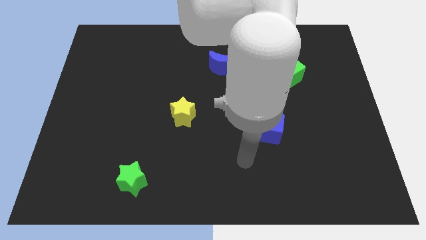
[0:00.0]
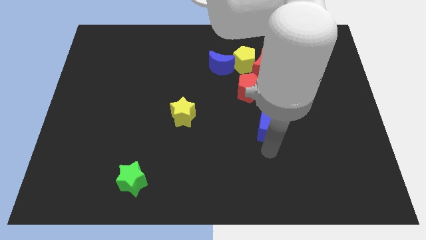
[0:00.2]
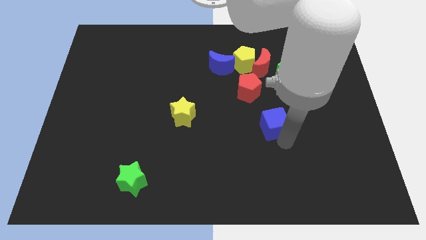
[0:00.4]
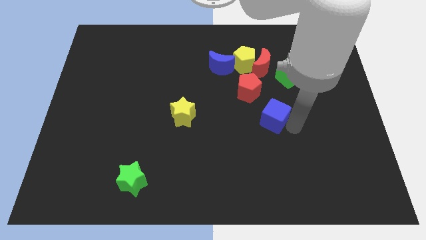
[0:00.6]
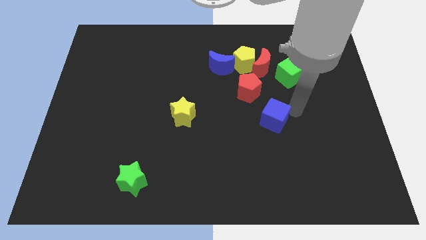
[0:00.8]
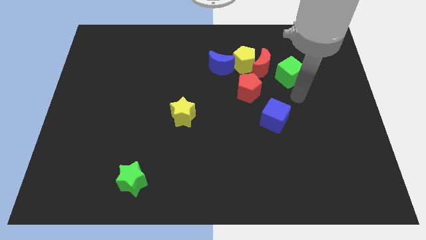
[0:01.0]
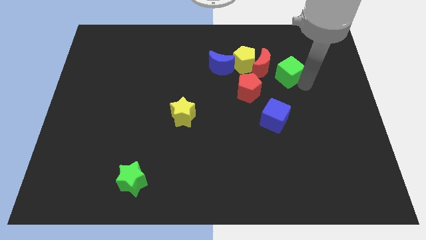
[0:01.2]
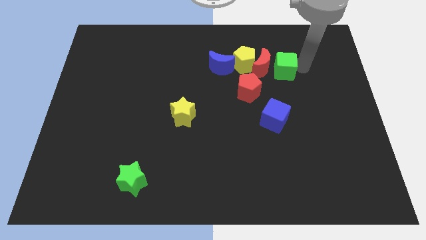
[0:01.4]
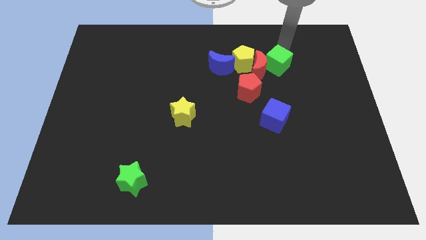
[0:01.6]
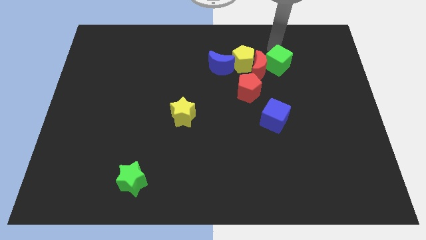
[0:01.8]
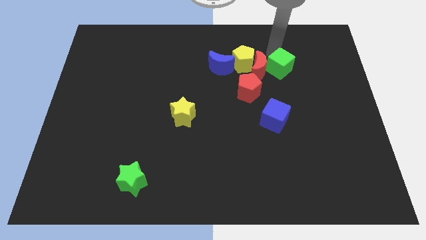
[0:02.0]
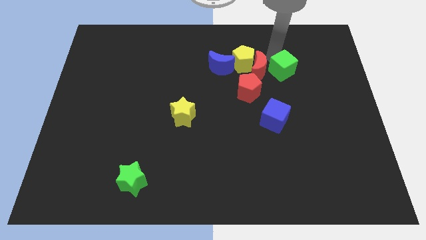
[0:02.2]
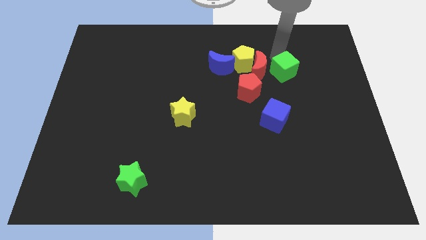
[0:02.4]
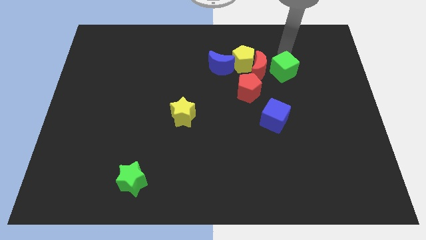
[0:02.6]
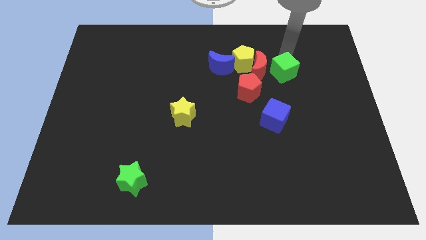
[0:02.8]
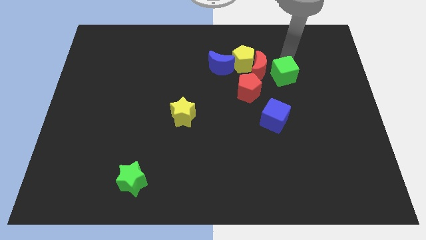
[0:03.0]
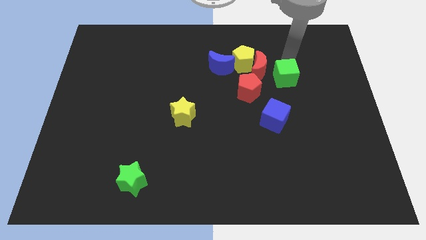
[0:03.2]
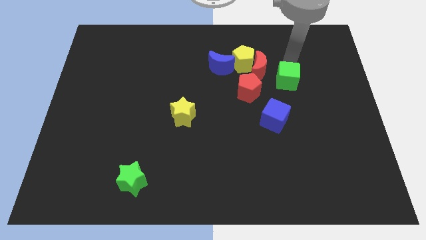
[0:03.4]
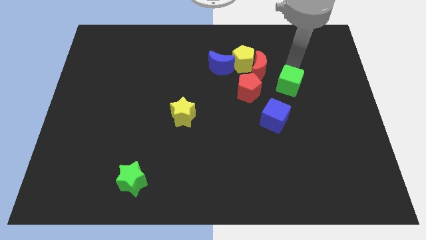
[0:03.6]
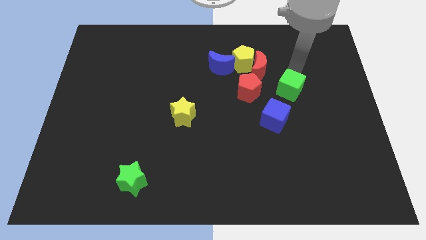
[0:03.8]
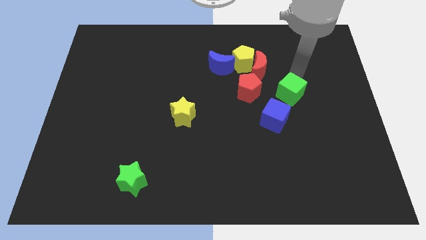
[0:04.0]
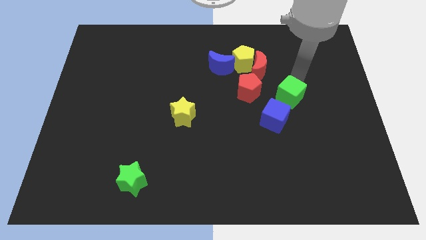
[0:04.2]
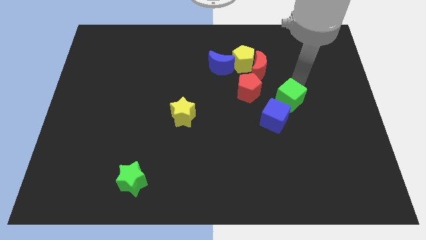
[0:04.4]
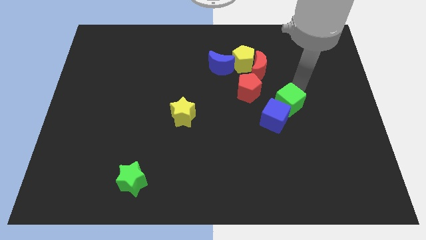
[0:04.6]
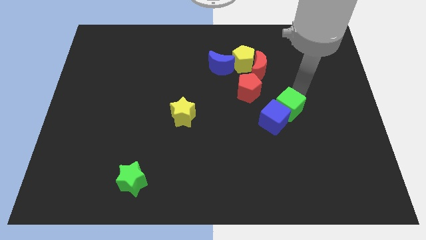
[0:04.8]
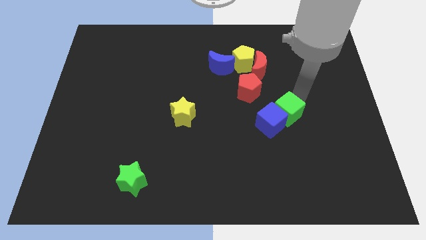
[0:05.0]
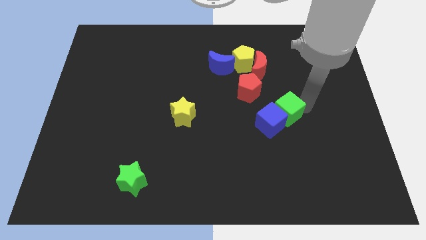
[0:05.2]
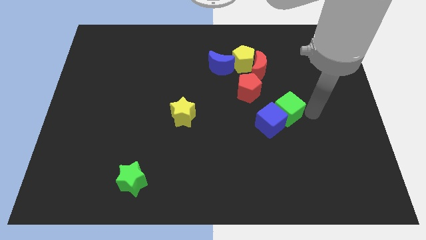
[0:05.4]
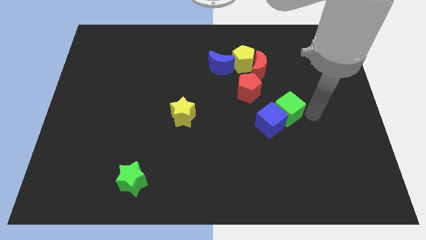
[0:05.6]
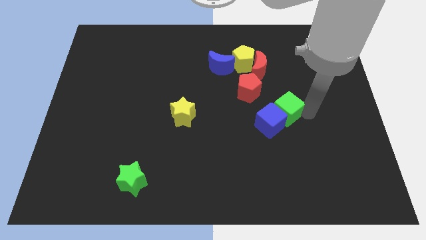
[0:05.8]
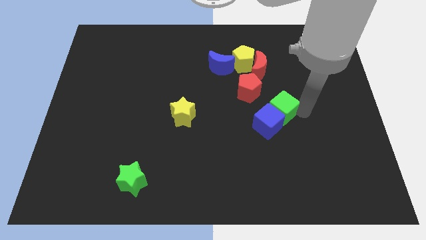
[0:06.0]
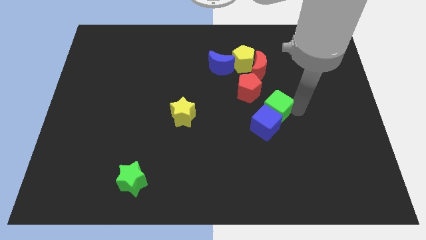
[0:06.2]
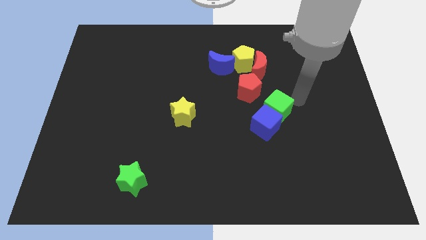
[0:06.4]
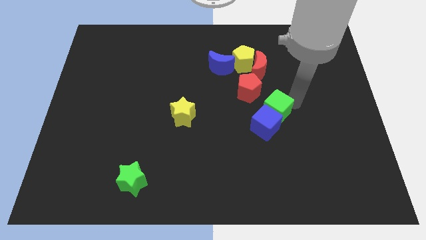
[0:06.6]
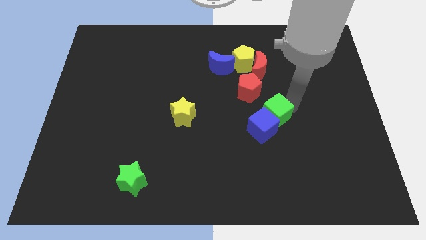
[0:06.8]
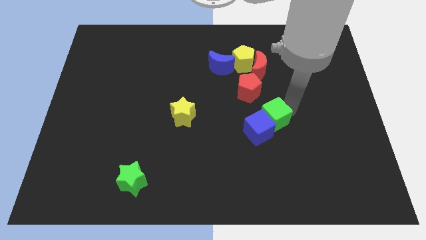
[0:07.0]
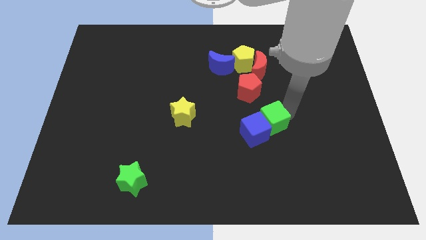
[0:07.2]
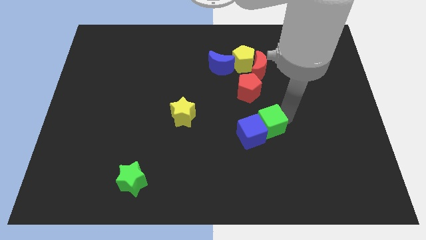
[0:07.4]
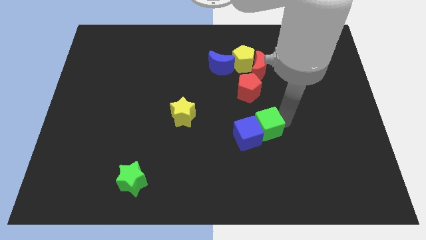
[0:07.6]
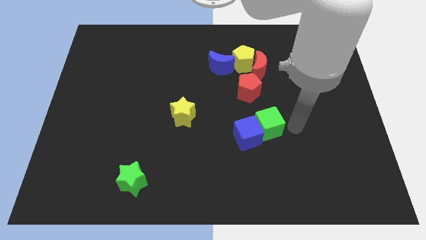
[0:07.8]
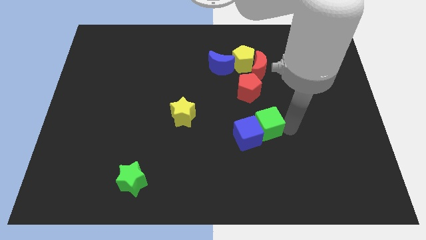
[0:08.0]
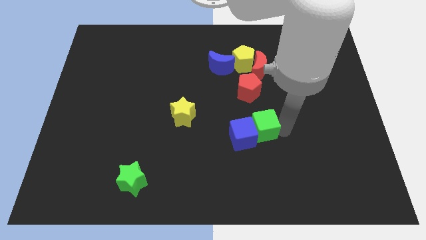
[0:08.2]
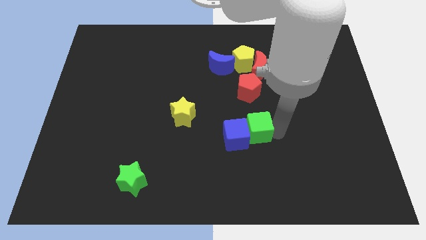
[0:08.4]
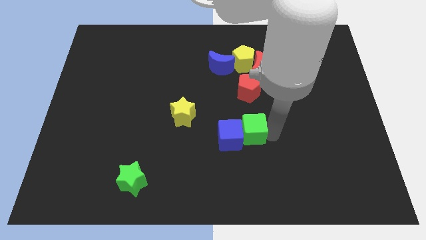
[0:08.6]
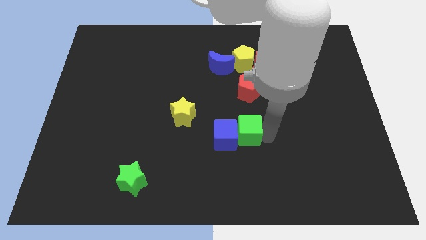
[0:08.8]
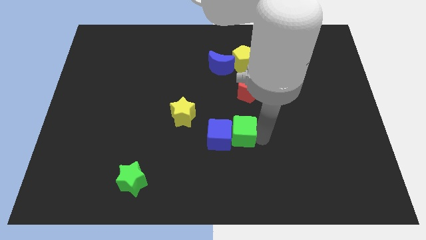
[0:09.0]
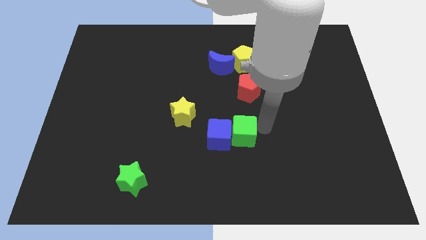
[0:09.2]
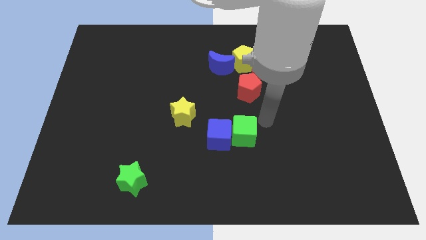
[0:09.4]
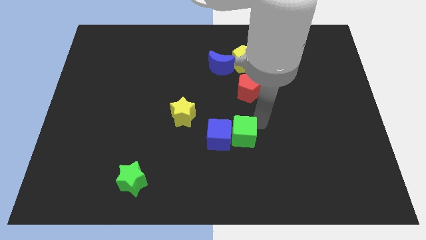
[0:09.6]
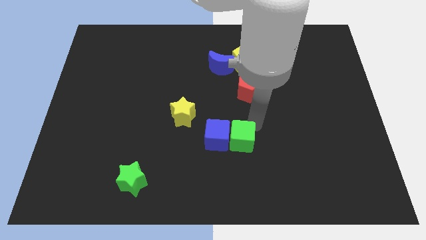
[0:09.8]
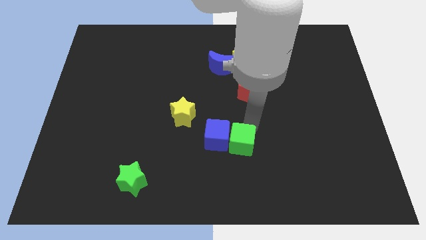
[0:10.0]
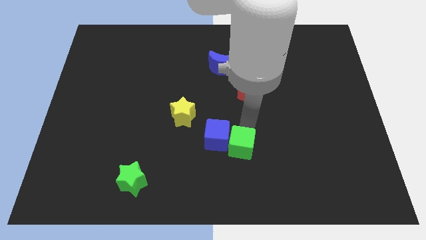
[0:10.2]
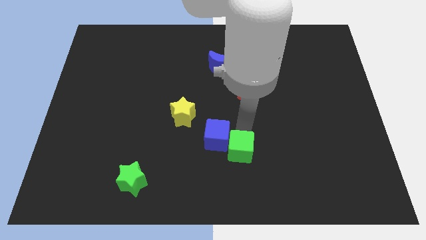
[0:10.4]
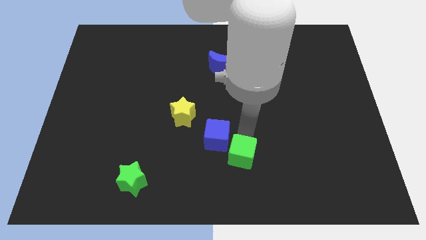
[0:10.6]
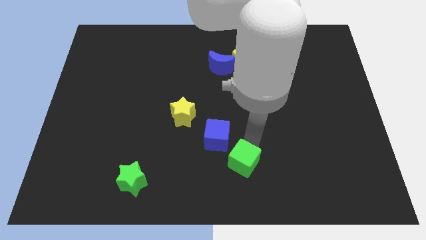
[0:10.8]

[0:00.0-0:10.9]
slide the green cube to the bottom side
